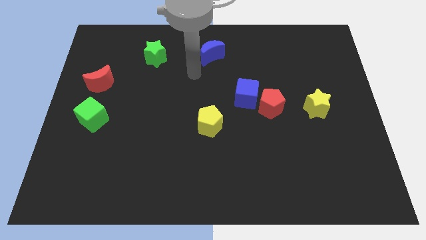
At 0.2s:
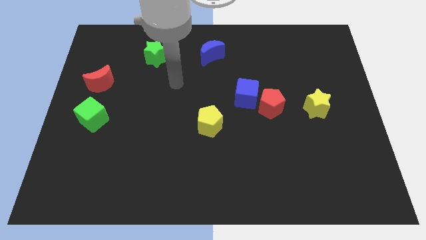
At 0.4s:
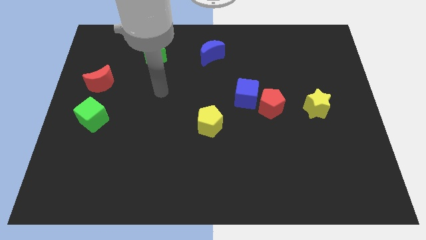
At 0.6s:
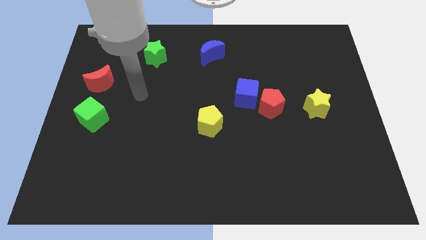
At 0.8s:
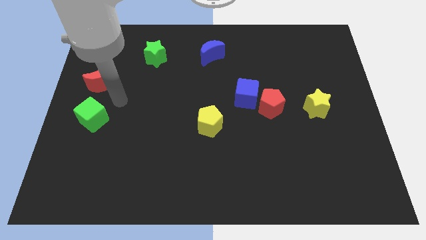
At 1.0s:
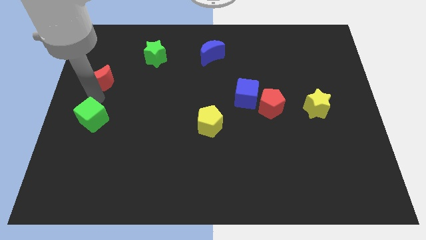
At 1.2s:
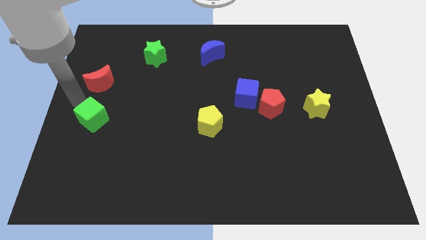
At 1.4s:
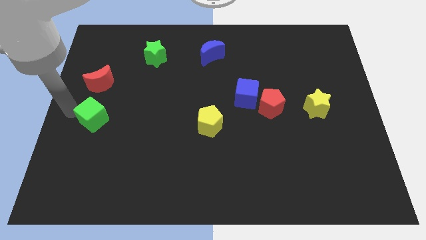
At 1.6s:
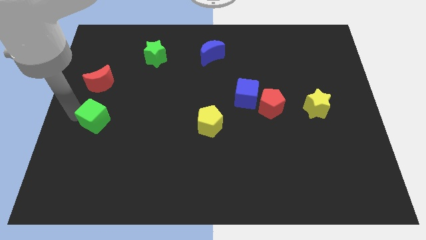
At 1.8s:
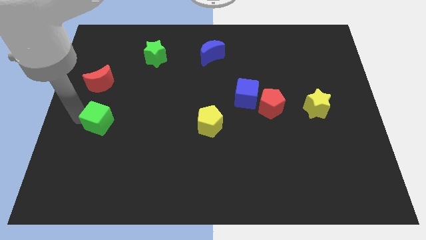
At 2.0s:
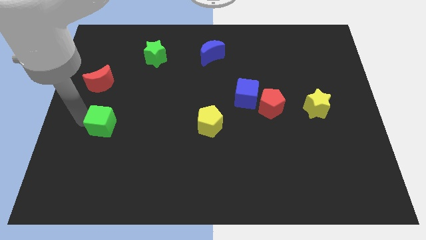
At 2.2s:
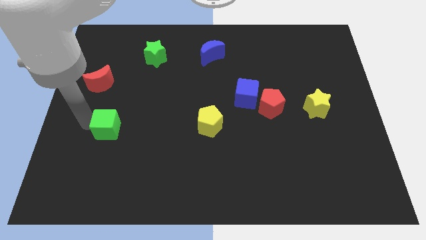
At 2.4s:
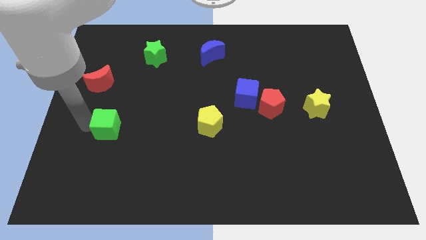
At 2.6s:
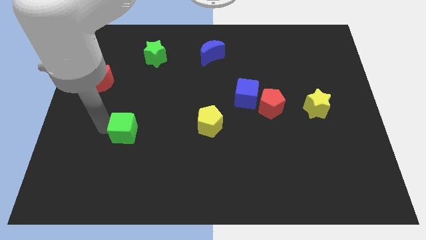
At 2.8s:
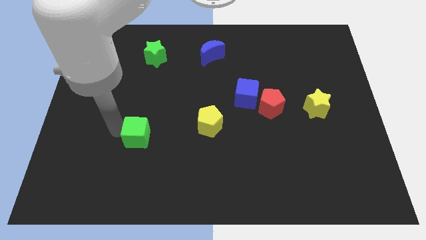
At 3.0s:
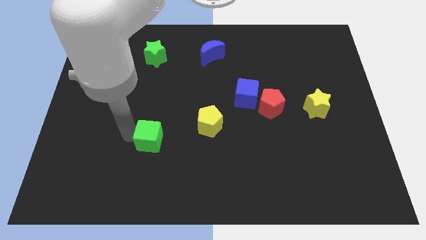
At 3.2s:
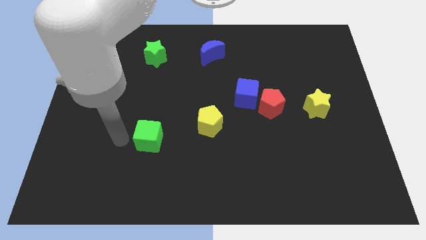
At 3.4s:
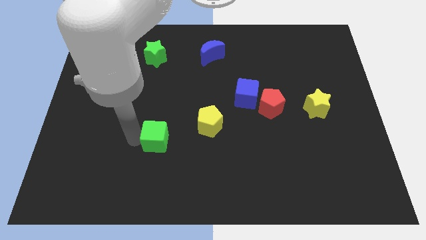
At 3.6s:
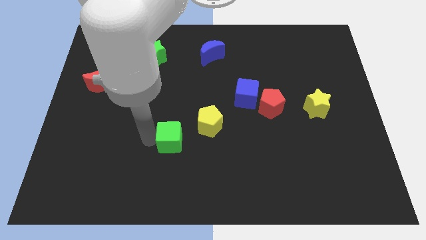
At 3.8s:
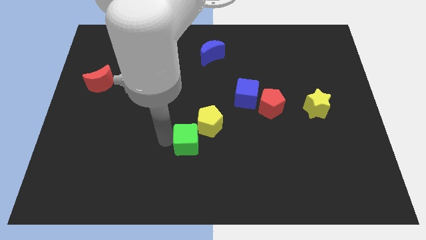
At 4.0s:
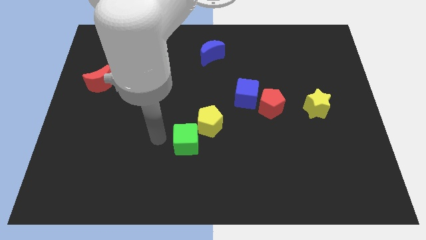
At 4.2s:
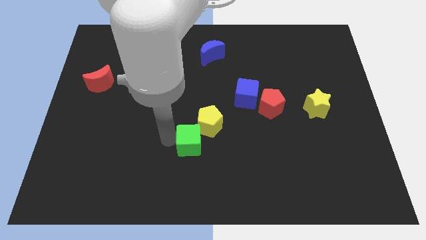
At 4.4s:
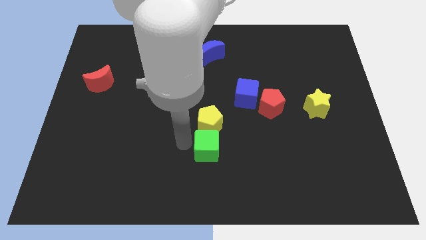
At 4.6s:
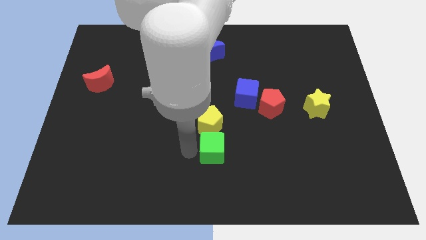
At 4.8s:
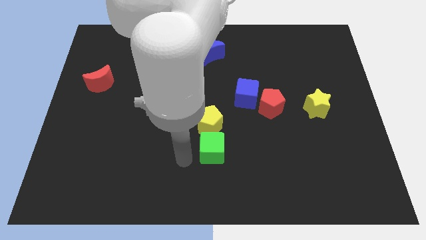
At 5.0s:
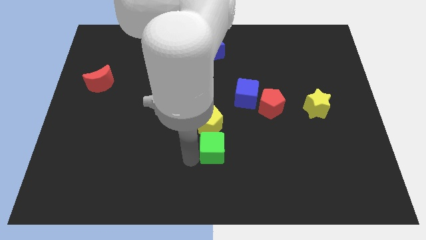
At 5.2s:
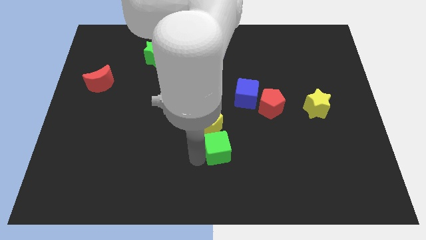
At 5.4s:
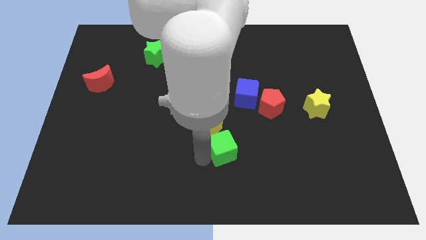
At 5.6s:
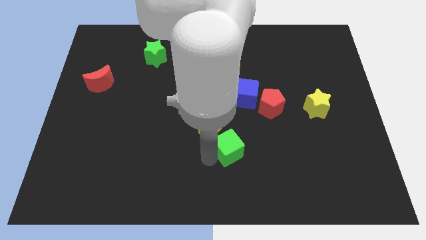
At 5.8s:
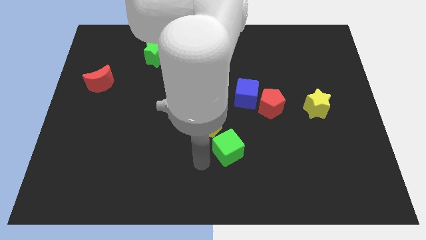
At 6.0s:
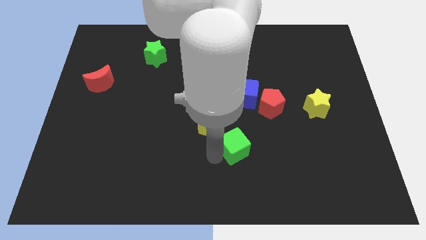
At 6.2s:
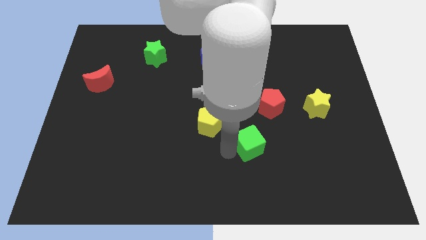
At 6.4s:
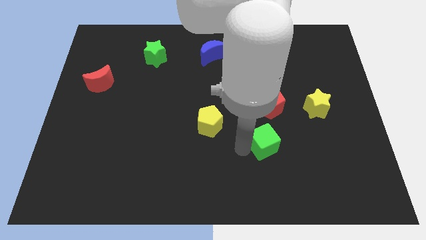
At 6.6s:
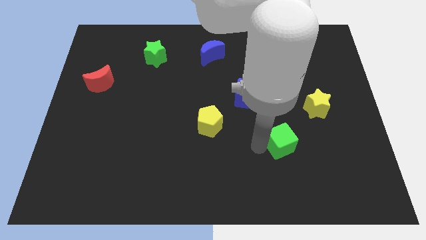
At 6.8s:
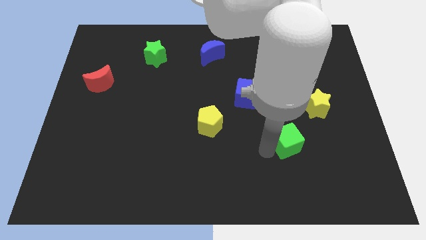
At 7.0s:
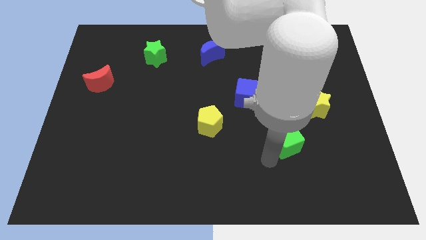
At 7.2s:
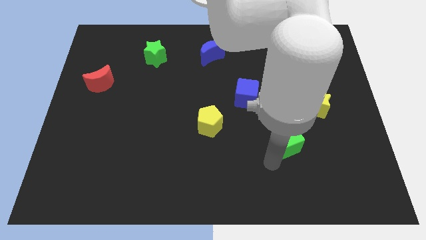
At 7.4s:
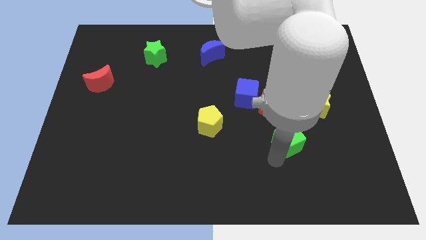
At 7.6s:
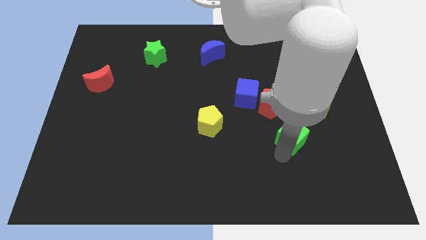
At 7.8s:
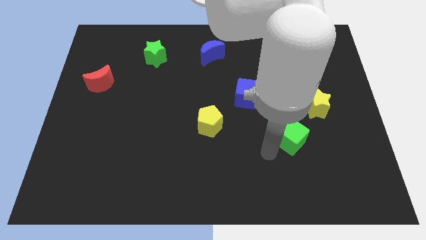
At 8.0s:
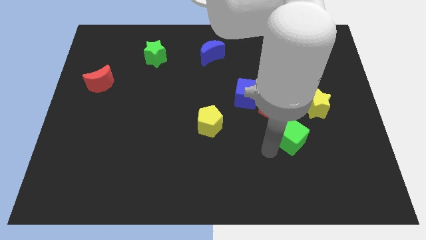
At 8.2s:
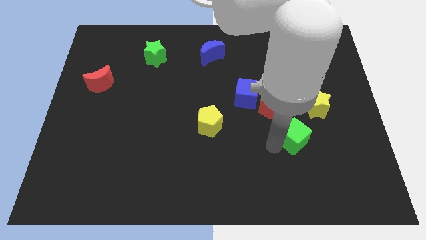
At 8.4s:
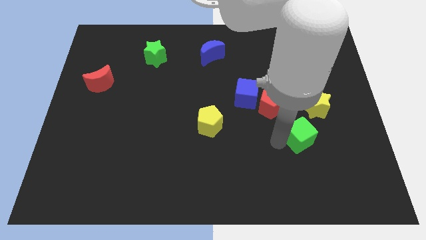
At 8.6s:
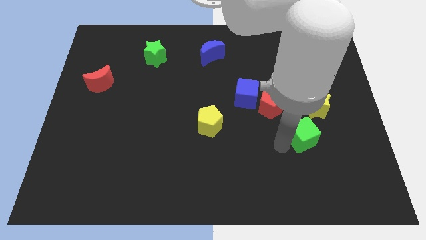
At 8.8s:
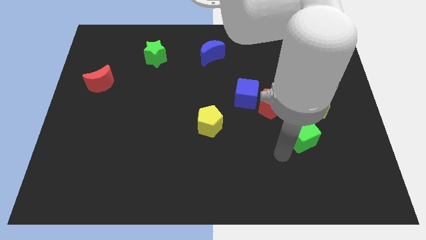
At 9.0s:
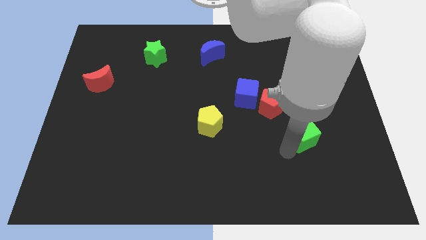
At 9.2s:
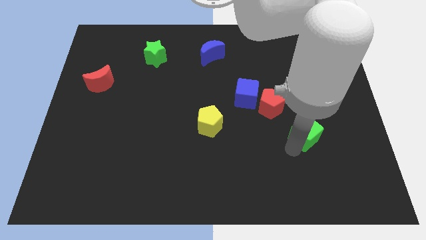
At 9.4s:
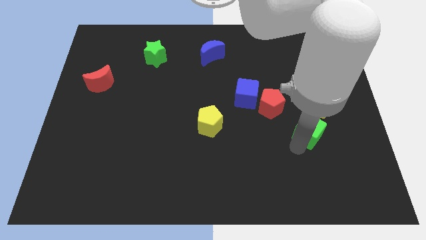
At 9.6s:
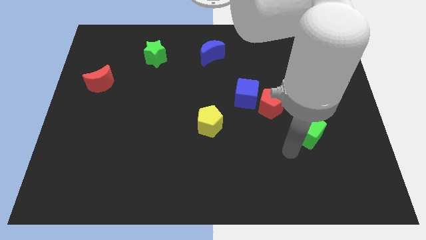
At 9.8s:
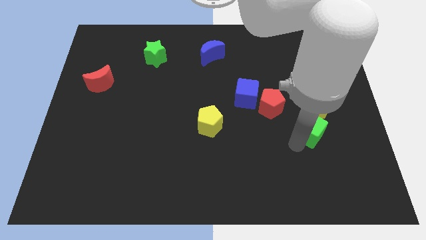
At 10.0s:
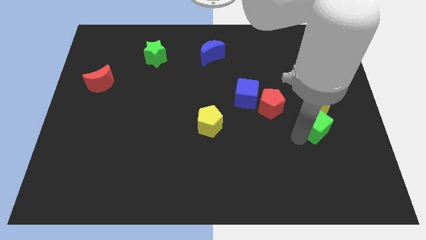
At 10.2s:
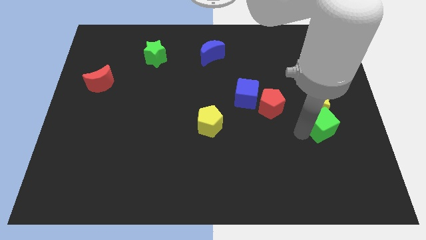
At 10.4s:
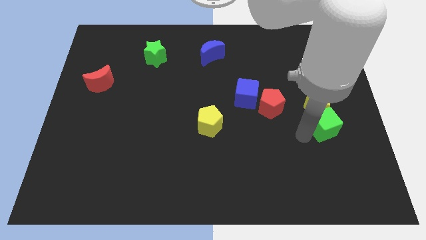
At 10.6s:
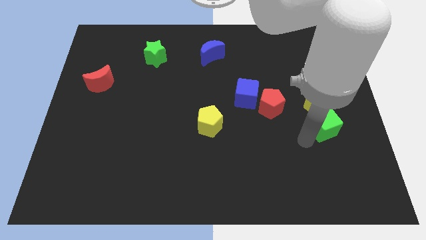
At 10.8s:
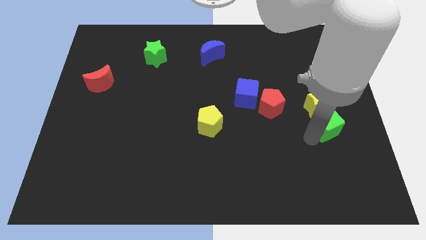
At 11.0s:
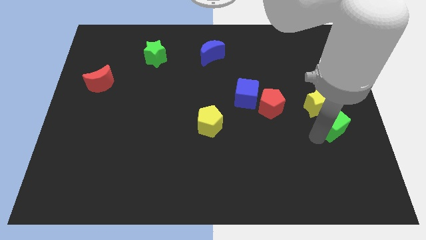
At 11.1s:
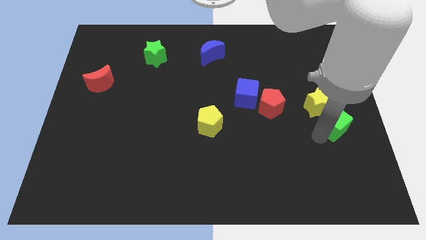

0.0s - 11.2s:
move the green cube to the right side

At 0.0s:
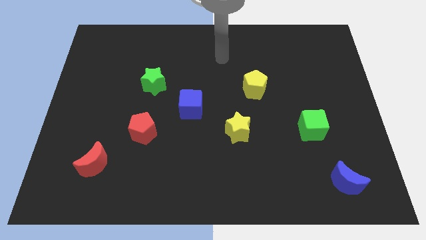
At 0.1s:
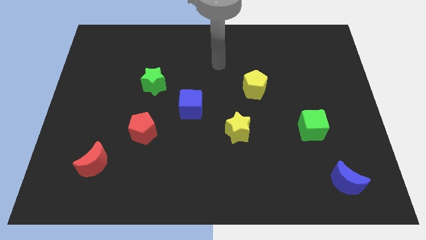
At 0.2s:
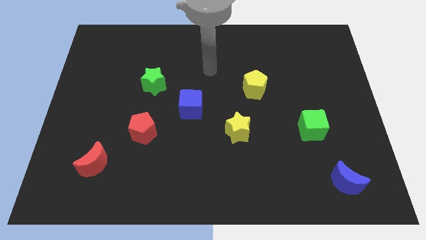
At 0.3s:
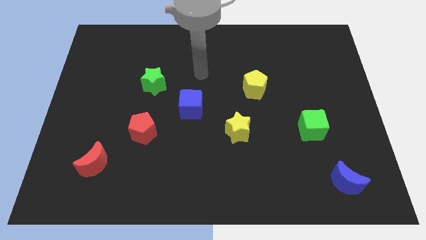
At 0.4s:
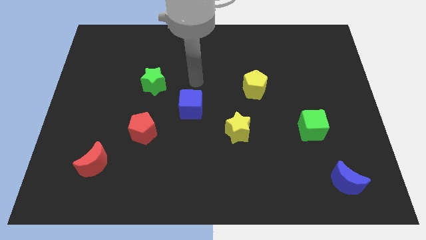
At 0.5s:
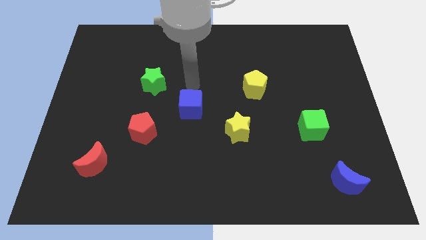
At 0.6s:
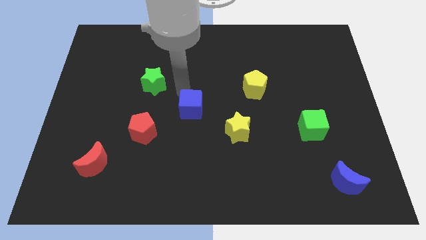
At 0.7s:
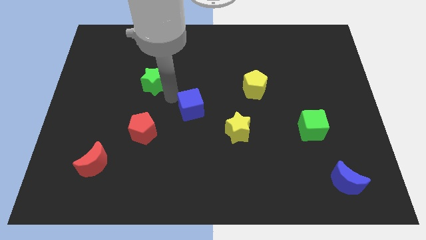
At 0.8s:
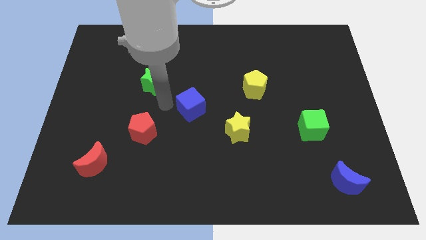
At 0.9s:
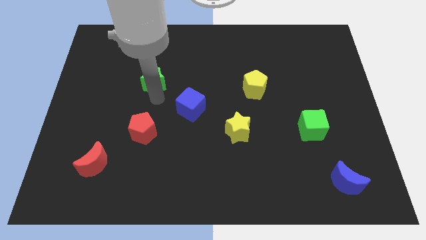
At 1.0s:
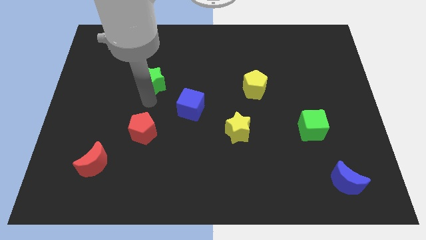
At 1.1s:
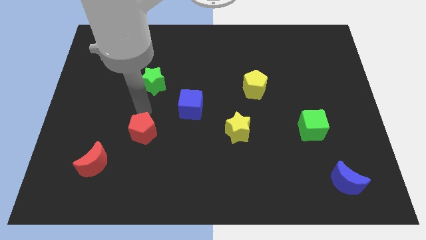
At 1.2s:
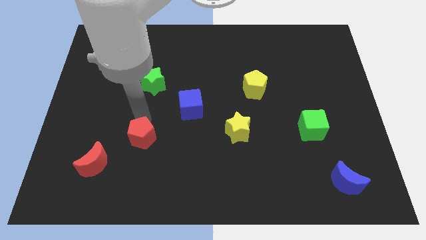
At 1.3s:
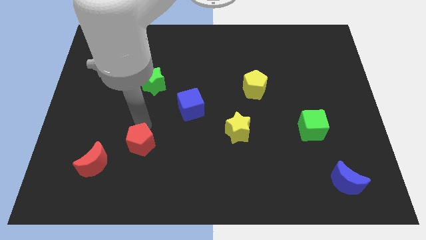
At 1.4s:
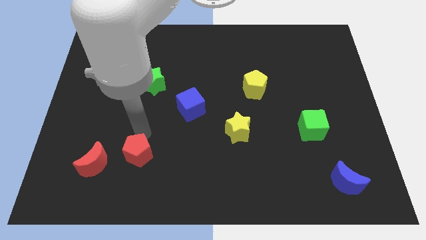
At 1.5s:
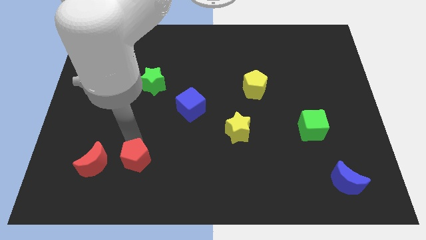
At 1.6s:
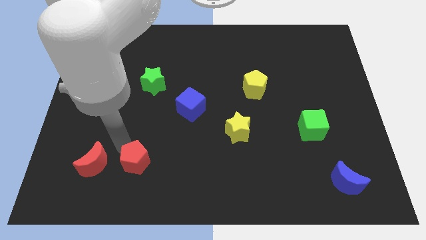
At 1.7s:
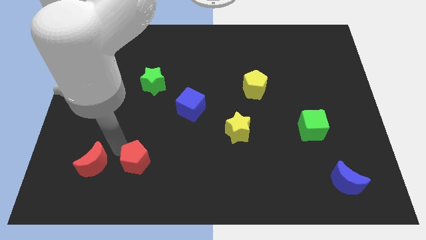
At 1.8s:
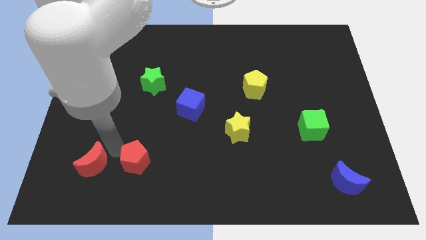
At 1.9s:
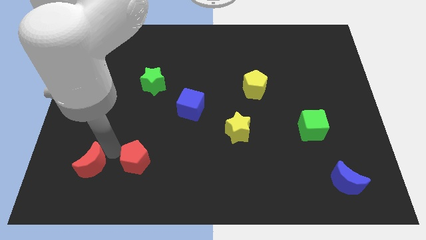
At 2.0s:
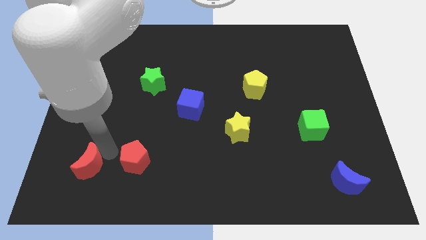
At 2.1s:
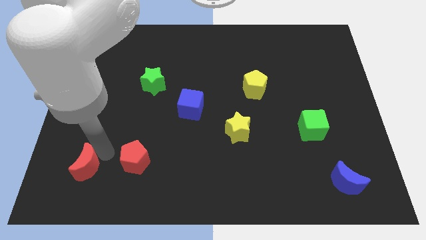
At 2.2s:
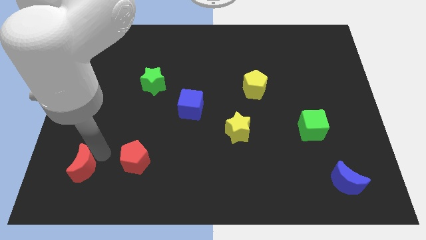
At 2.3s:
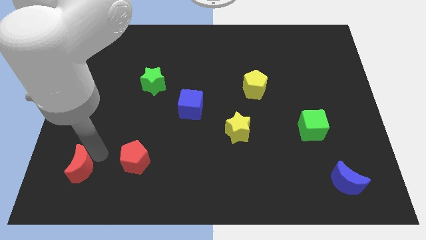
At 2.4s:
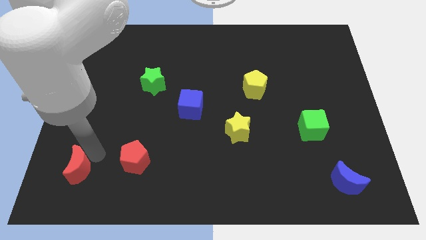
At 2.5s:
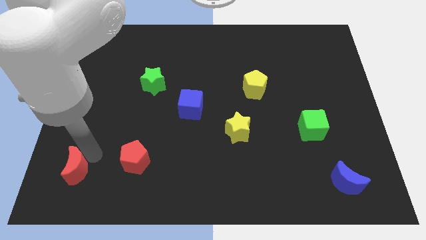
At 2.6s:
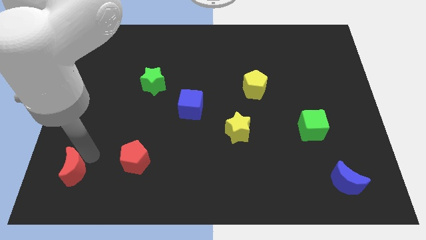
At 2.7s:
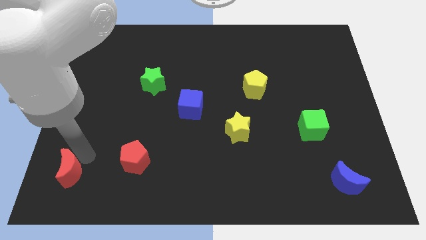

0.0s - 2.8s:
put the red moon to the bottom left
